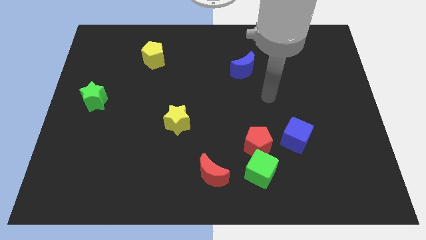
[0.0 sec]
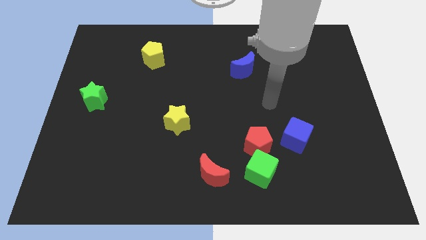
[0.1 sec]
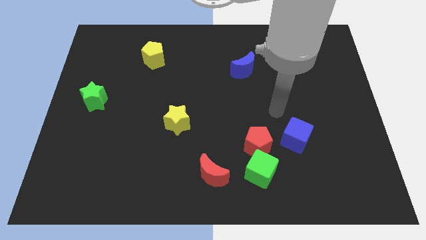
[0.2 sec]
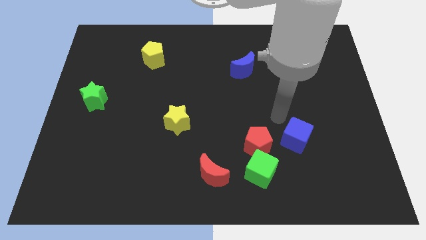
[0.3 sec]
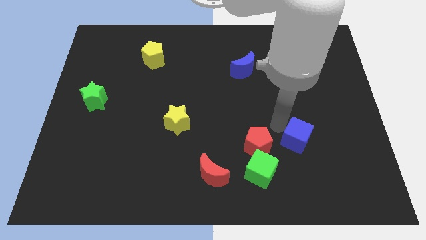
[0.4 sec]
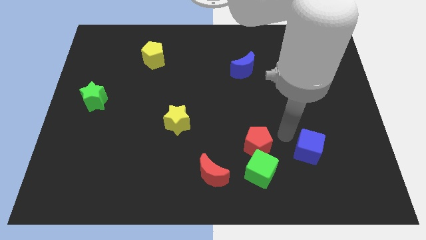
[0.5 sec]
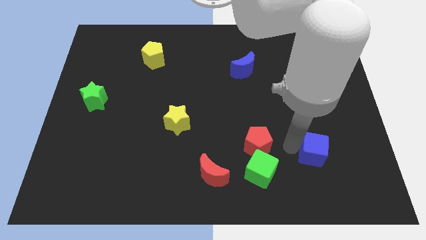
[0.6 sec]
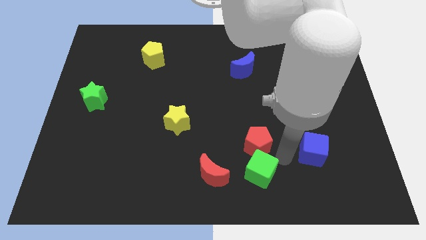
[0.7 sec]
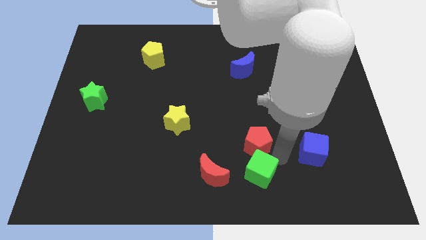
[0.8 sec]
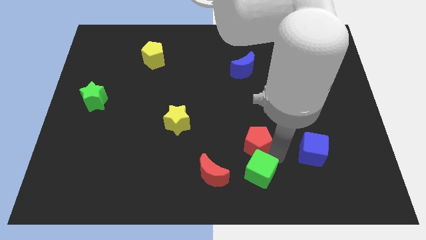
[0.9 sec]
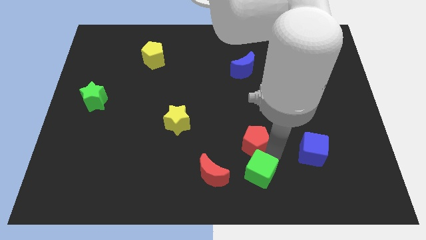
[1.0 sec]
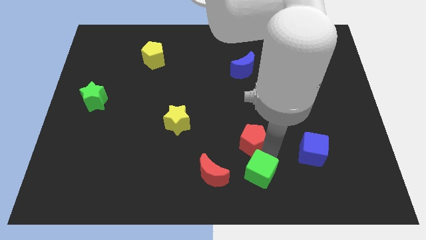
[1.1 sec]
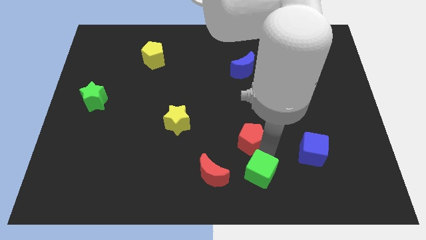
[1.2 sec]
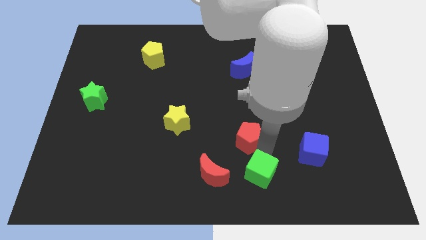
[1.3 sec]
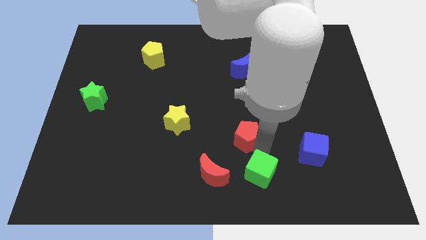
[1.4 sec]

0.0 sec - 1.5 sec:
pull the red pentagon apart from the green cube and blue cube

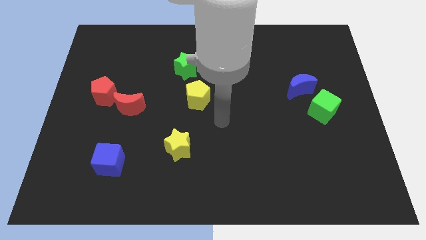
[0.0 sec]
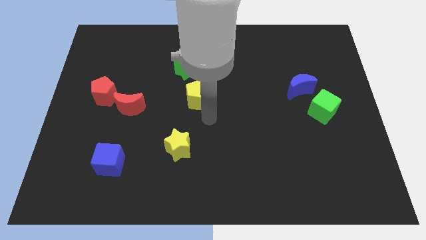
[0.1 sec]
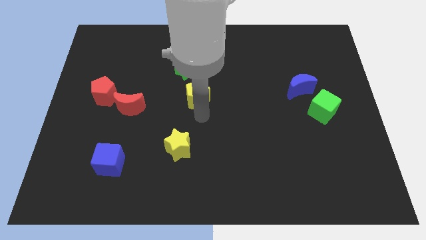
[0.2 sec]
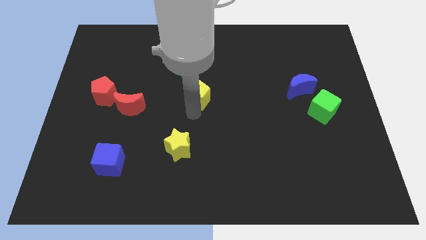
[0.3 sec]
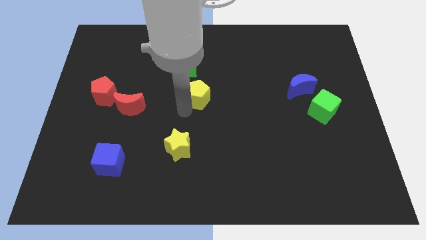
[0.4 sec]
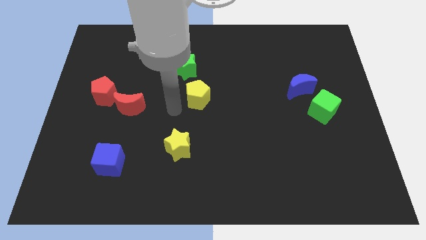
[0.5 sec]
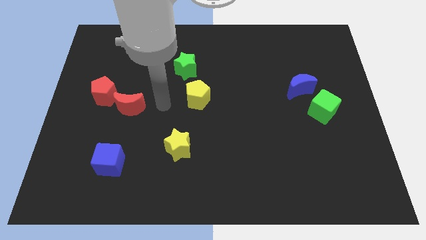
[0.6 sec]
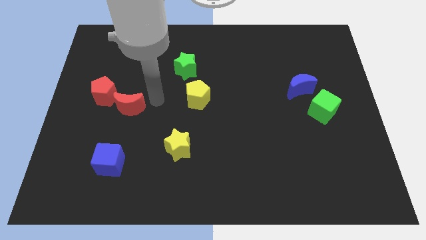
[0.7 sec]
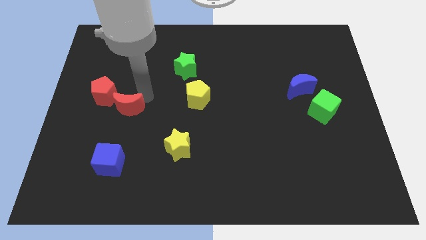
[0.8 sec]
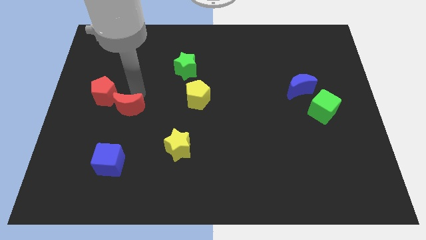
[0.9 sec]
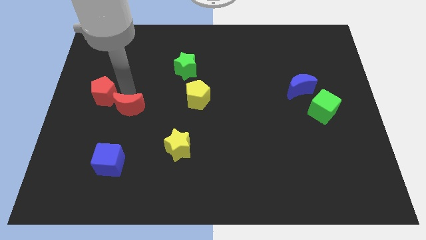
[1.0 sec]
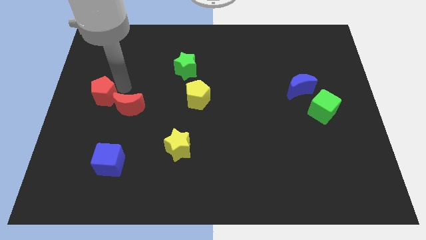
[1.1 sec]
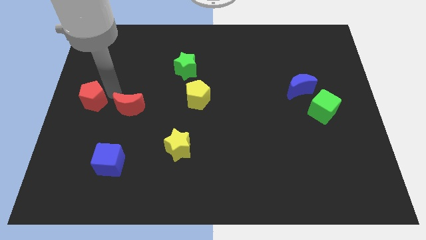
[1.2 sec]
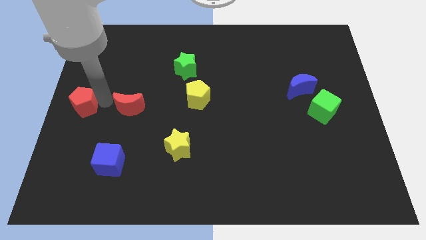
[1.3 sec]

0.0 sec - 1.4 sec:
move the red moon away from the red pentagon

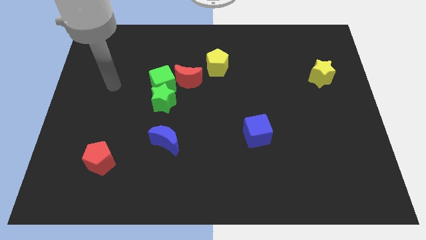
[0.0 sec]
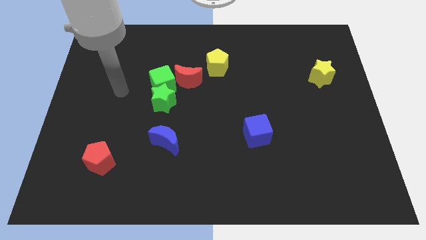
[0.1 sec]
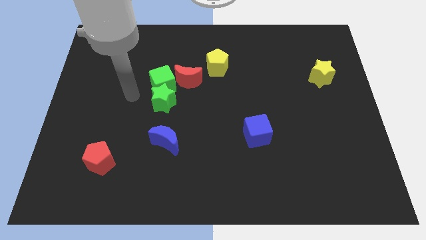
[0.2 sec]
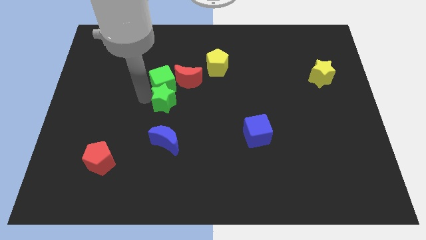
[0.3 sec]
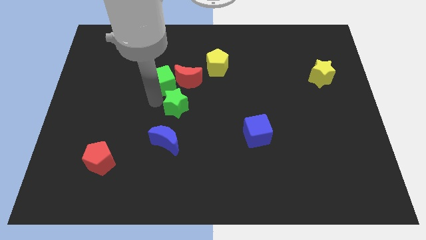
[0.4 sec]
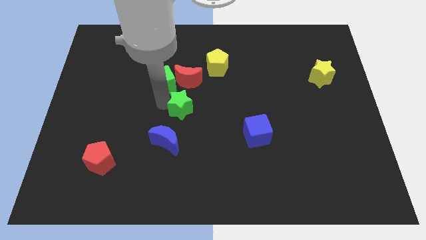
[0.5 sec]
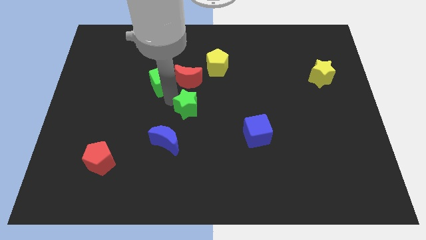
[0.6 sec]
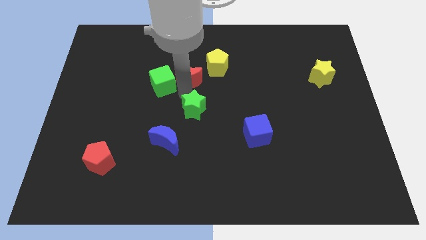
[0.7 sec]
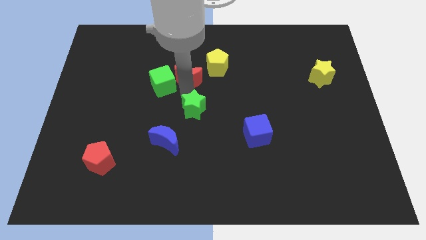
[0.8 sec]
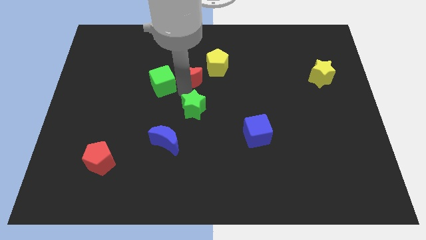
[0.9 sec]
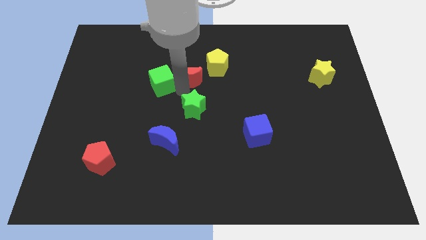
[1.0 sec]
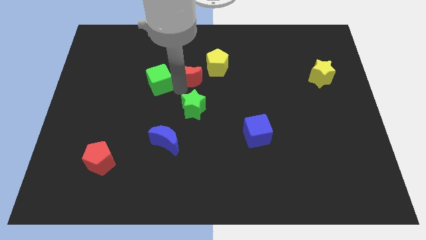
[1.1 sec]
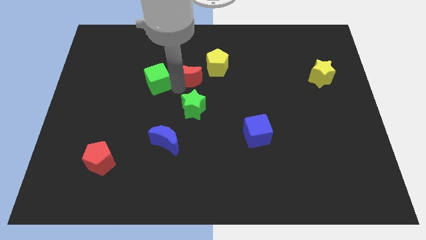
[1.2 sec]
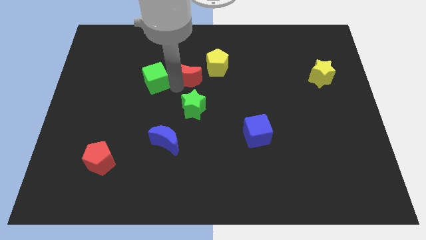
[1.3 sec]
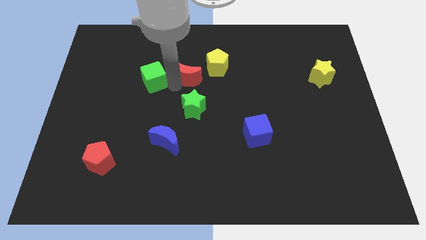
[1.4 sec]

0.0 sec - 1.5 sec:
separate the green cube from the green star and red moon

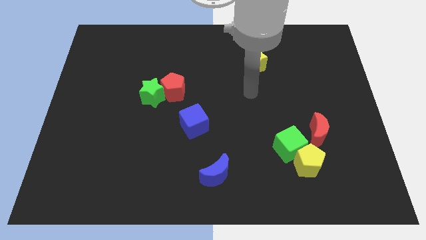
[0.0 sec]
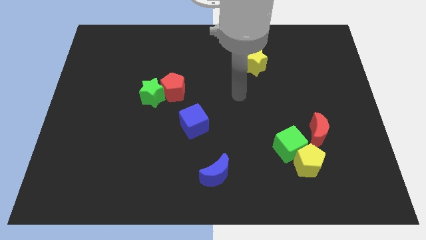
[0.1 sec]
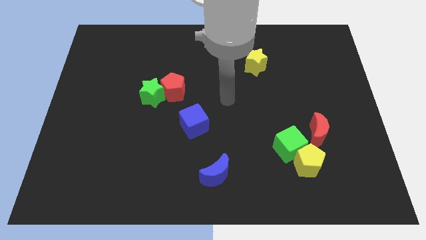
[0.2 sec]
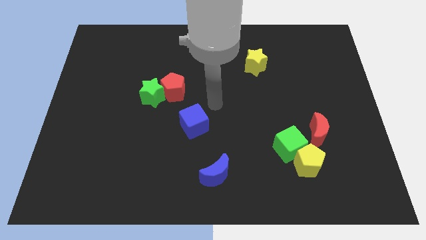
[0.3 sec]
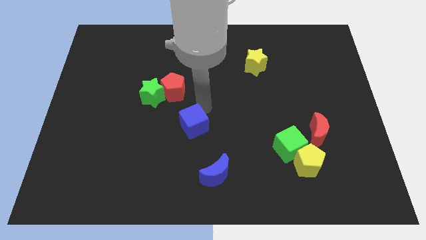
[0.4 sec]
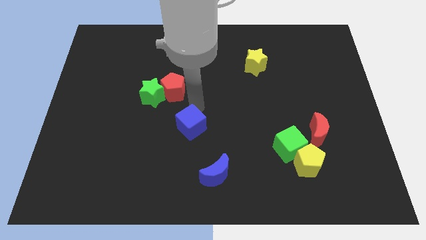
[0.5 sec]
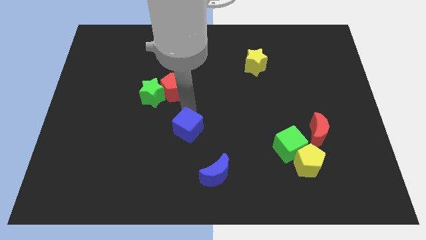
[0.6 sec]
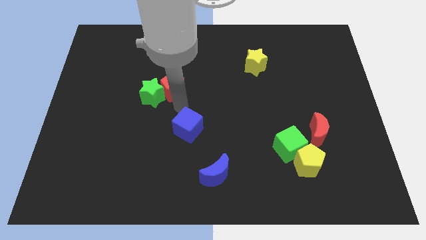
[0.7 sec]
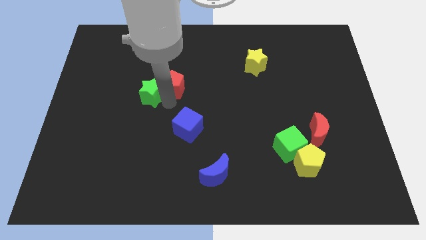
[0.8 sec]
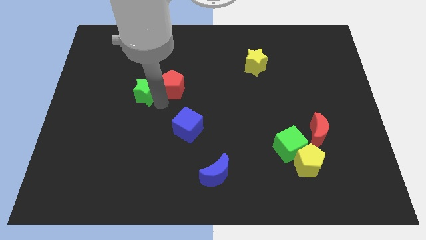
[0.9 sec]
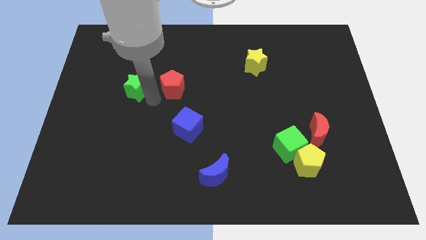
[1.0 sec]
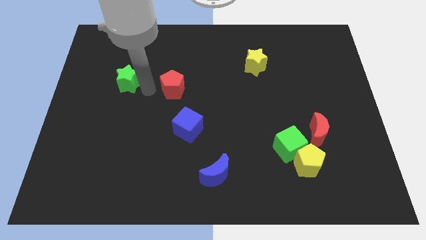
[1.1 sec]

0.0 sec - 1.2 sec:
pull the red pentagon apart from the green star

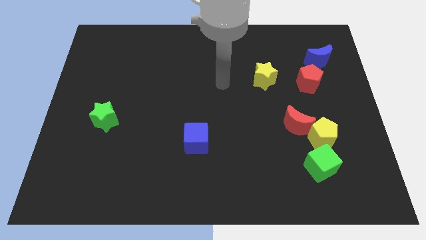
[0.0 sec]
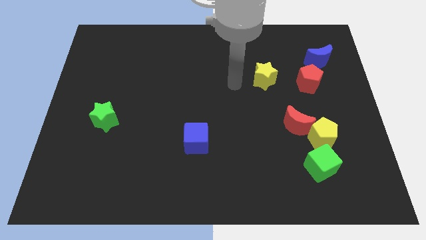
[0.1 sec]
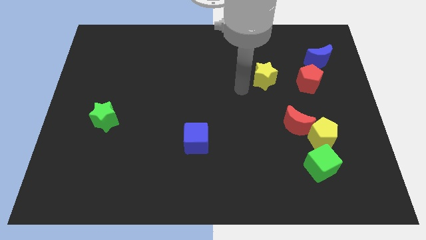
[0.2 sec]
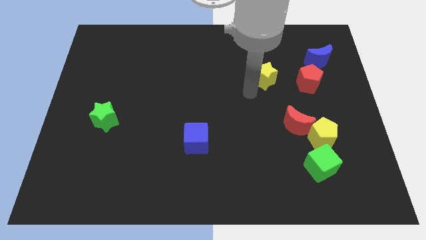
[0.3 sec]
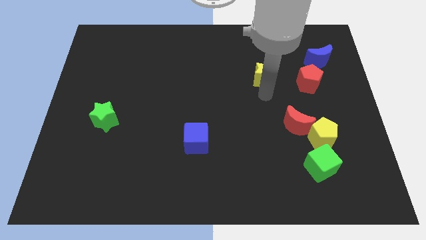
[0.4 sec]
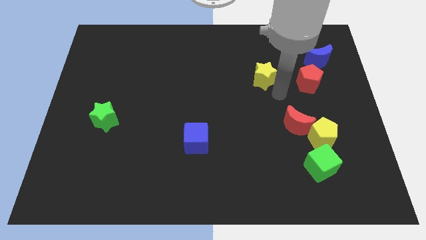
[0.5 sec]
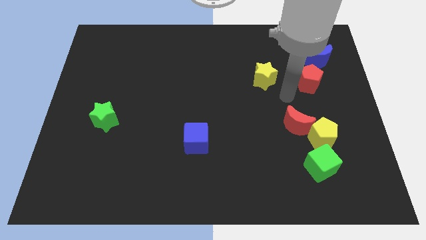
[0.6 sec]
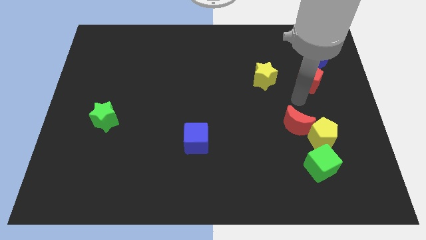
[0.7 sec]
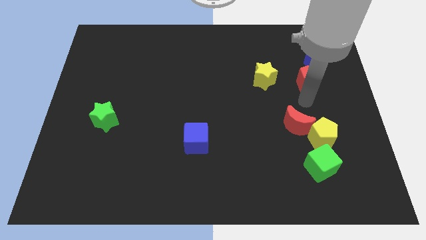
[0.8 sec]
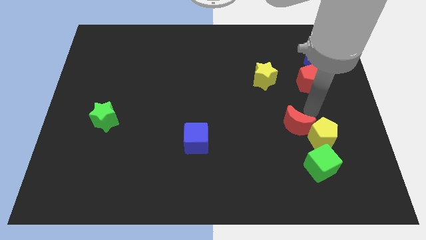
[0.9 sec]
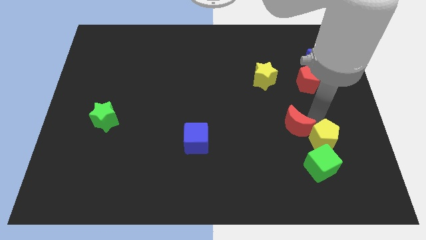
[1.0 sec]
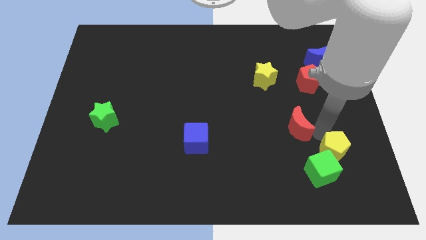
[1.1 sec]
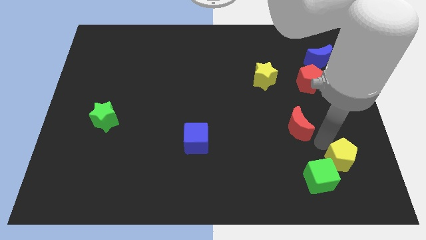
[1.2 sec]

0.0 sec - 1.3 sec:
move the red moon away from the yellow pentagon

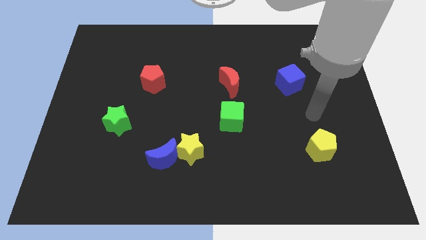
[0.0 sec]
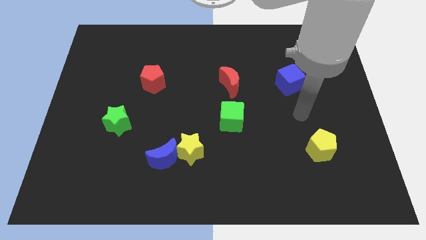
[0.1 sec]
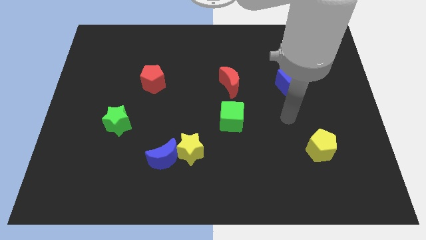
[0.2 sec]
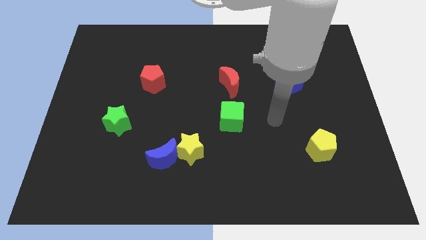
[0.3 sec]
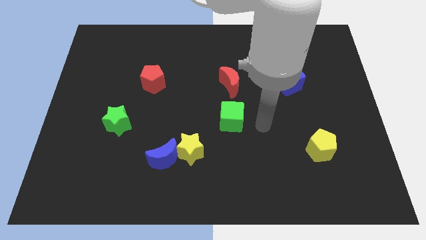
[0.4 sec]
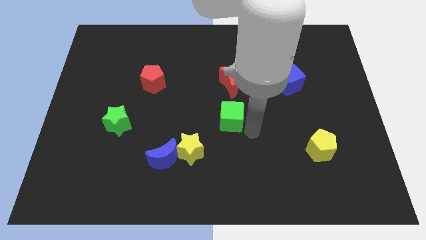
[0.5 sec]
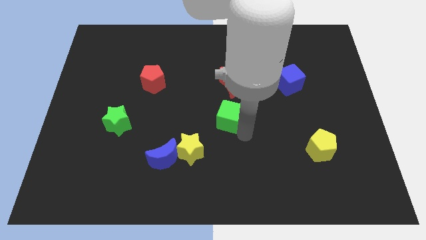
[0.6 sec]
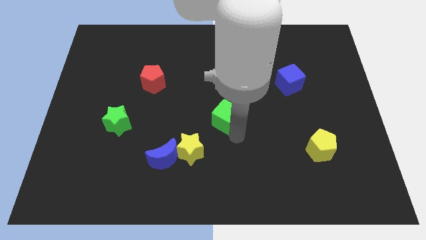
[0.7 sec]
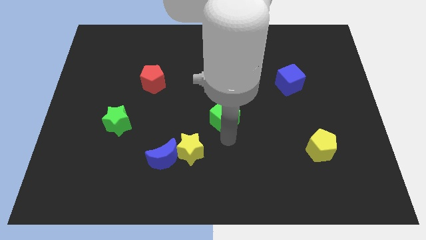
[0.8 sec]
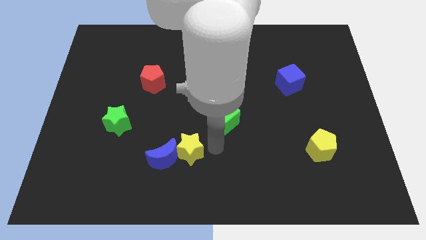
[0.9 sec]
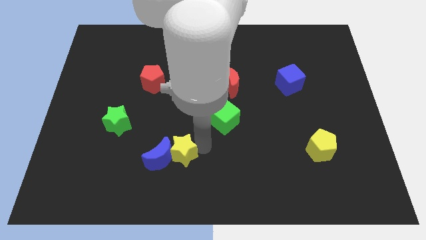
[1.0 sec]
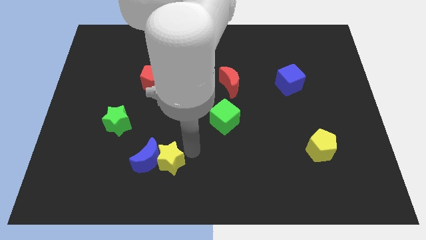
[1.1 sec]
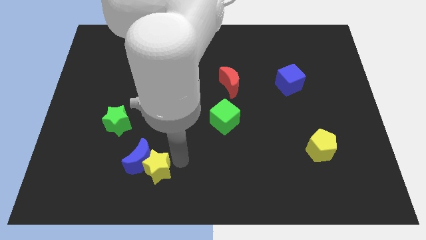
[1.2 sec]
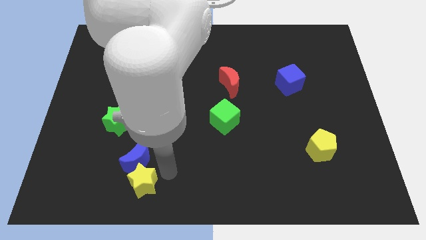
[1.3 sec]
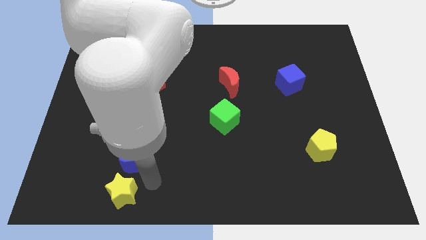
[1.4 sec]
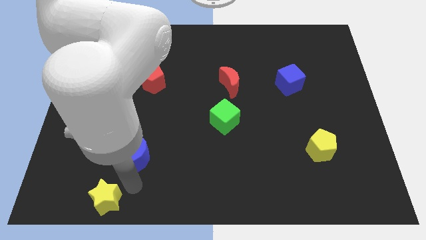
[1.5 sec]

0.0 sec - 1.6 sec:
pull the blue moon apart from the yellow star

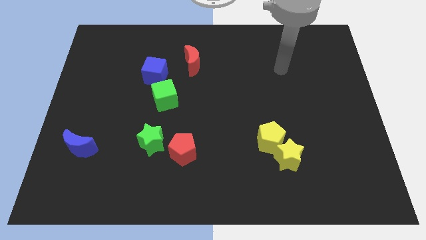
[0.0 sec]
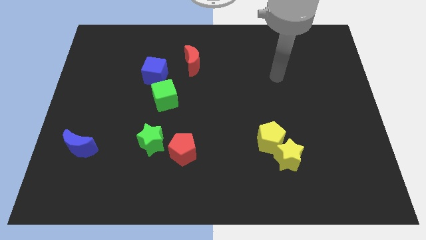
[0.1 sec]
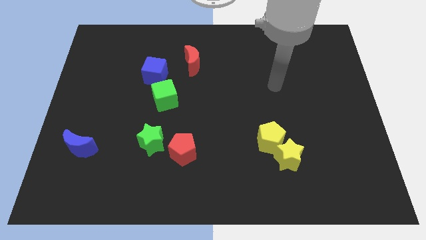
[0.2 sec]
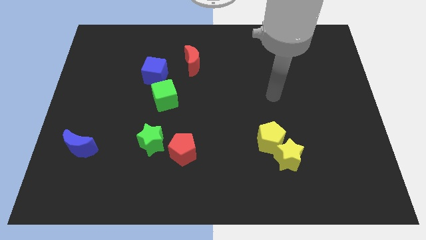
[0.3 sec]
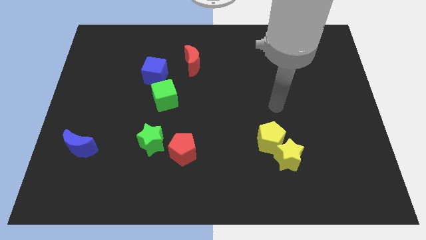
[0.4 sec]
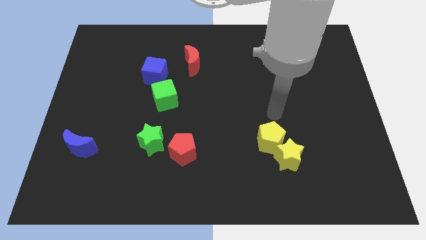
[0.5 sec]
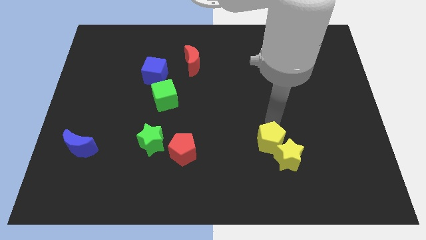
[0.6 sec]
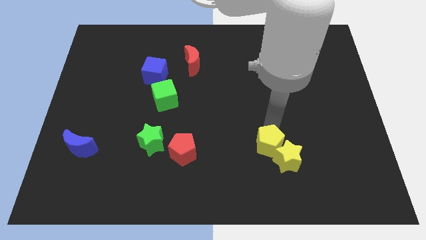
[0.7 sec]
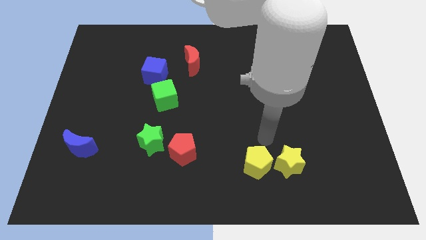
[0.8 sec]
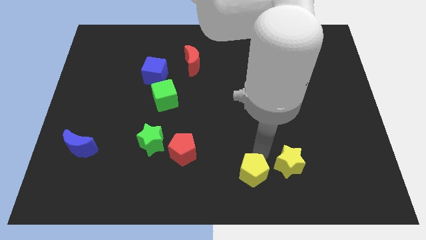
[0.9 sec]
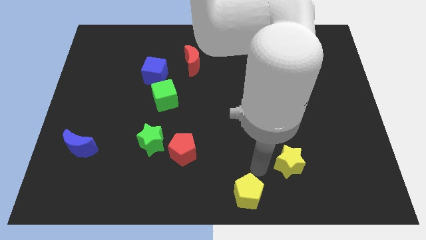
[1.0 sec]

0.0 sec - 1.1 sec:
separate the yellow star from the yellow pentagon
